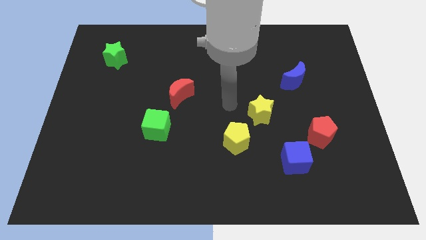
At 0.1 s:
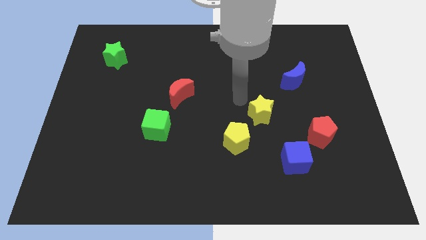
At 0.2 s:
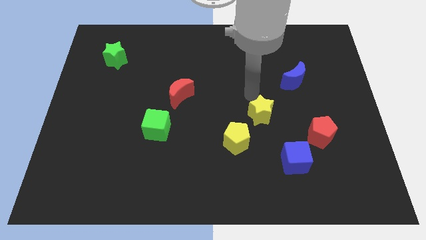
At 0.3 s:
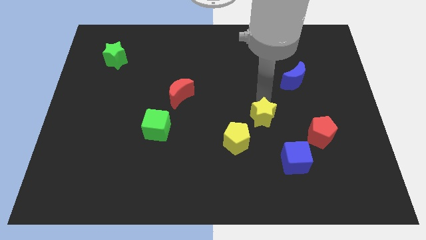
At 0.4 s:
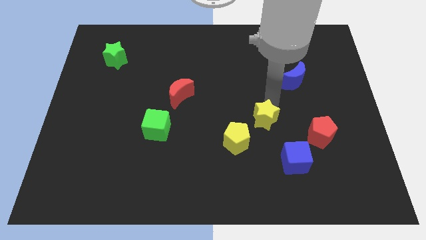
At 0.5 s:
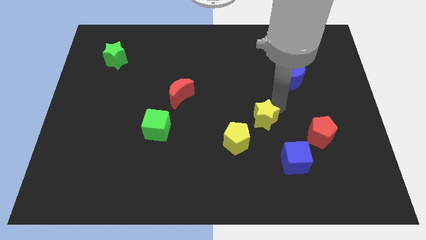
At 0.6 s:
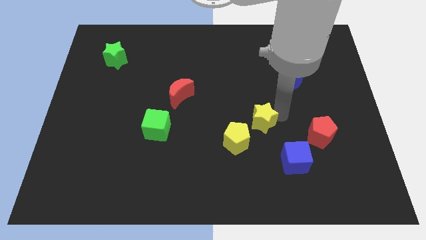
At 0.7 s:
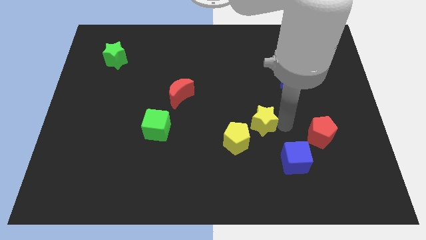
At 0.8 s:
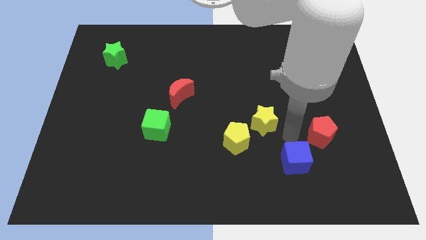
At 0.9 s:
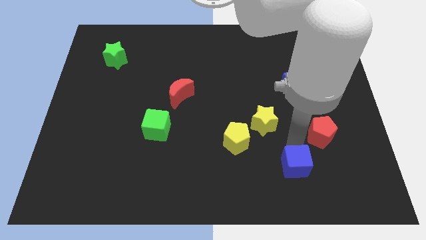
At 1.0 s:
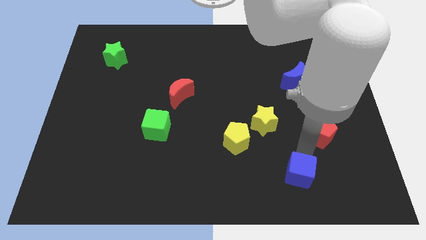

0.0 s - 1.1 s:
move the red pentagon away from the blue cube

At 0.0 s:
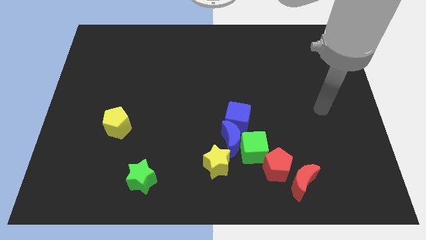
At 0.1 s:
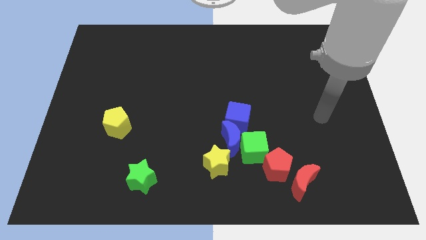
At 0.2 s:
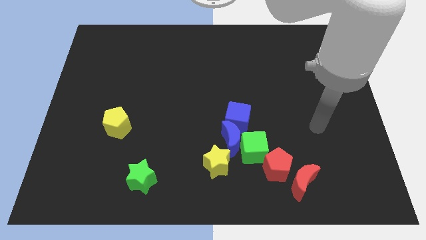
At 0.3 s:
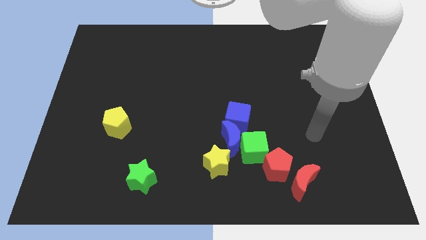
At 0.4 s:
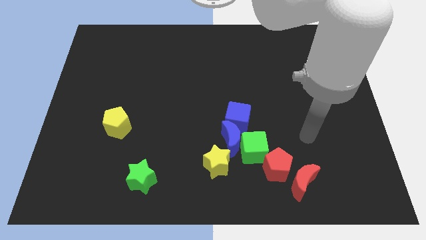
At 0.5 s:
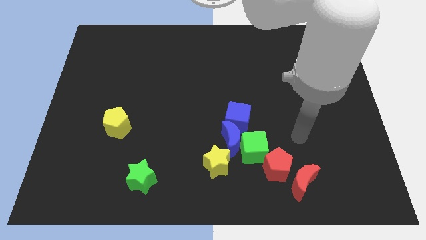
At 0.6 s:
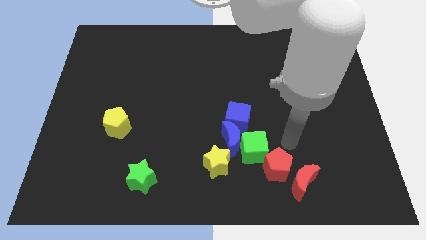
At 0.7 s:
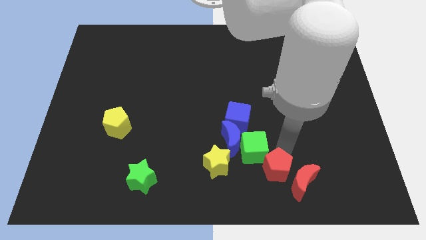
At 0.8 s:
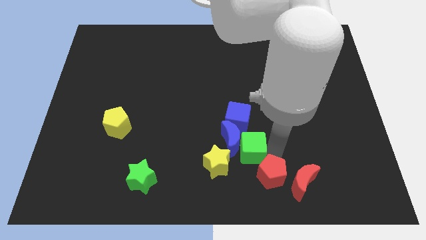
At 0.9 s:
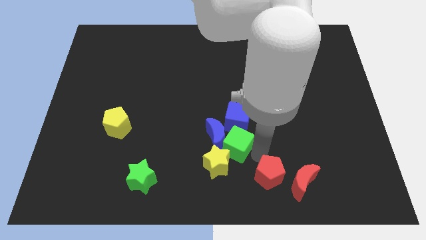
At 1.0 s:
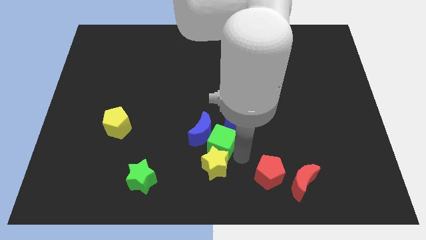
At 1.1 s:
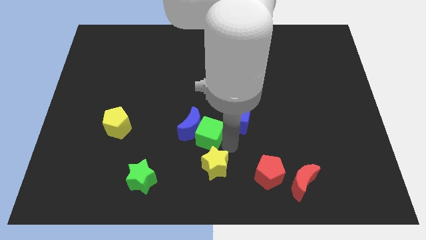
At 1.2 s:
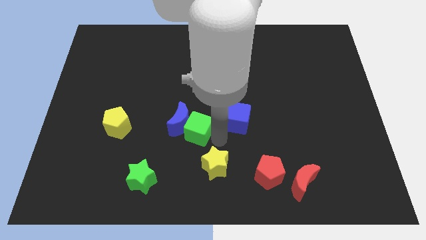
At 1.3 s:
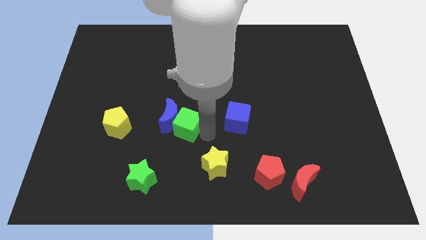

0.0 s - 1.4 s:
pull the blue moon apart from the green cube, blue cube, and yellow star

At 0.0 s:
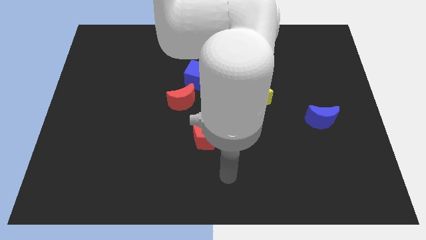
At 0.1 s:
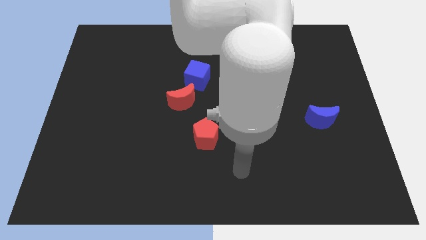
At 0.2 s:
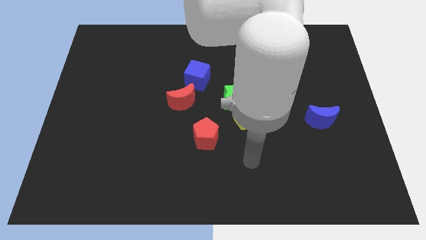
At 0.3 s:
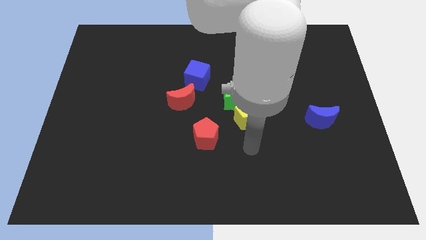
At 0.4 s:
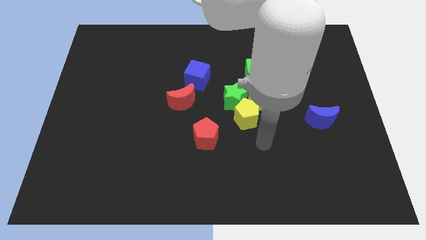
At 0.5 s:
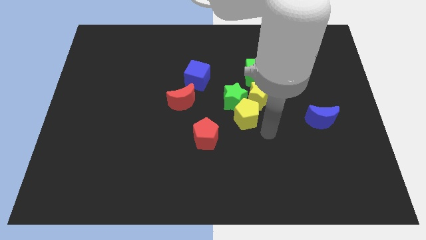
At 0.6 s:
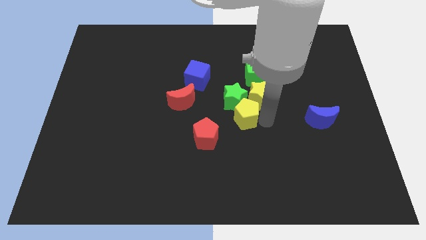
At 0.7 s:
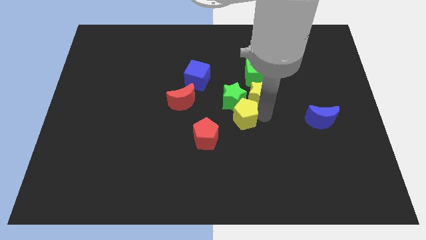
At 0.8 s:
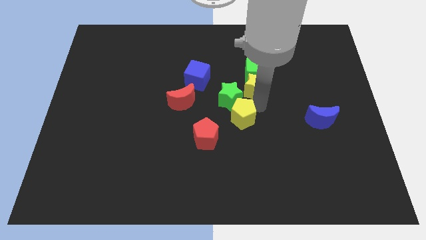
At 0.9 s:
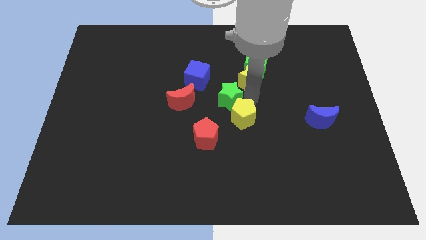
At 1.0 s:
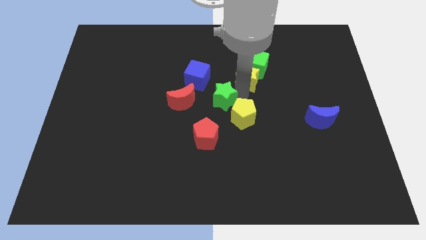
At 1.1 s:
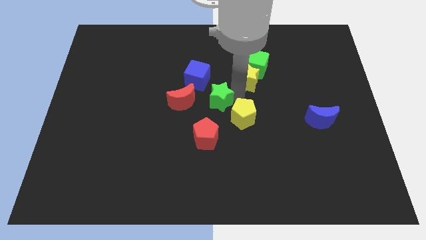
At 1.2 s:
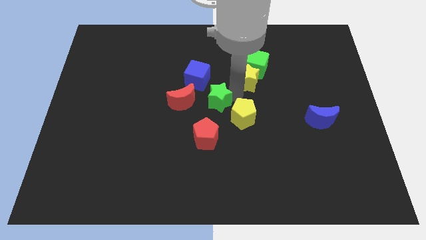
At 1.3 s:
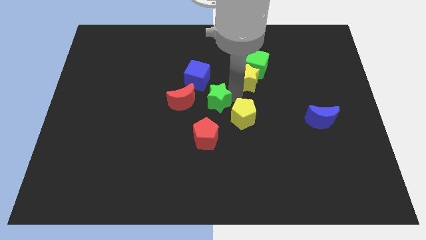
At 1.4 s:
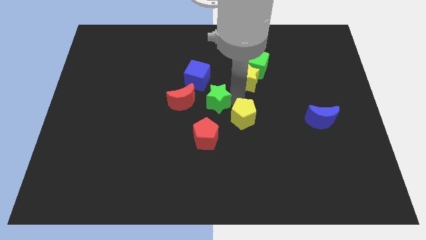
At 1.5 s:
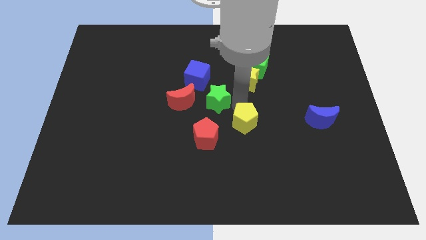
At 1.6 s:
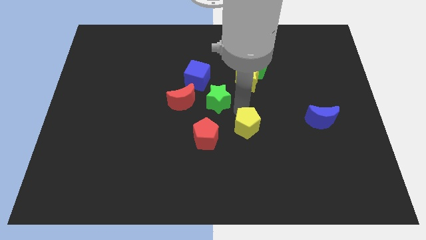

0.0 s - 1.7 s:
pull the yellow pentagon apart from the green star and yellow star

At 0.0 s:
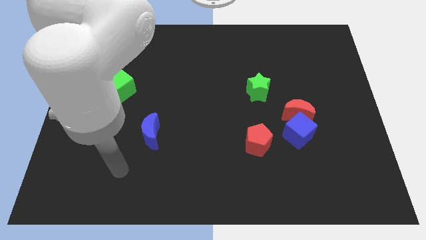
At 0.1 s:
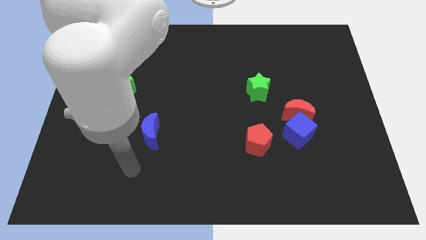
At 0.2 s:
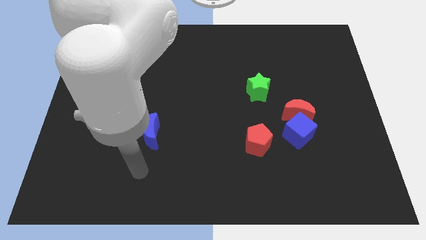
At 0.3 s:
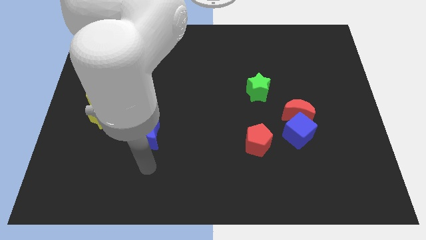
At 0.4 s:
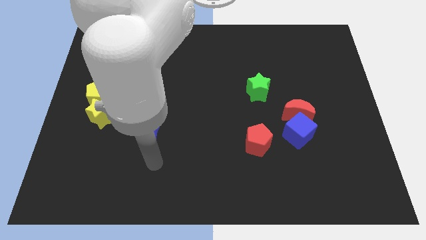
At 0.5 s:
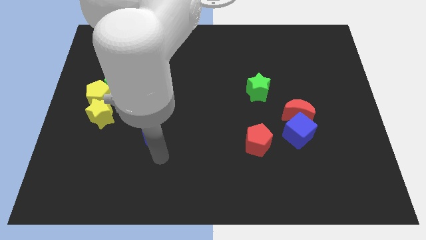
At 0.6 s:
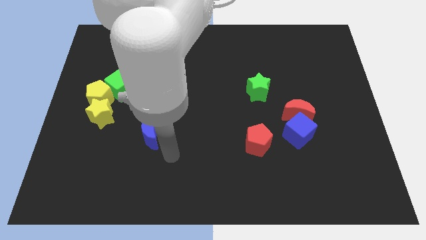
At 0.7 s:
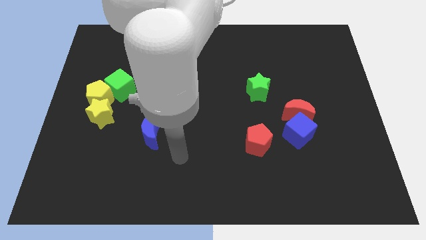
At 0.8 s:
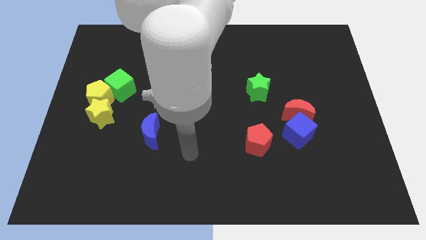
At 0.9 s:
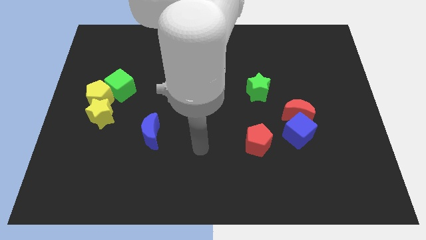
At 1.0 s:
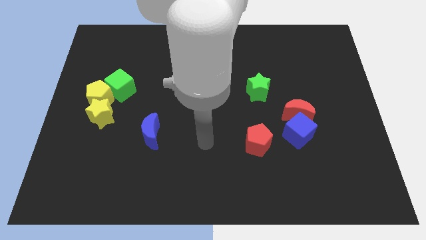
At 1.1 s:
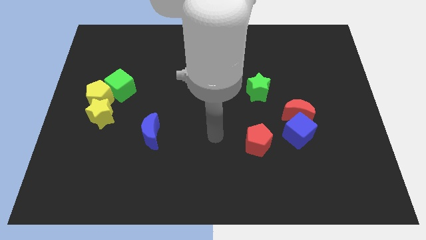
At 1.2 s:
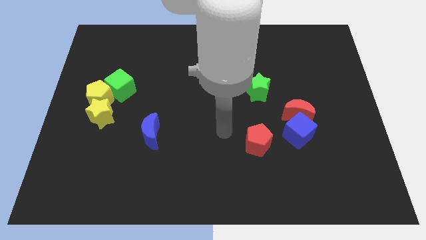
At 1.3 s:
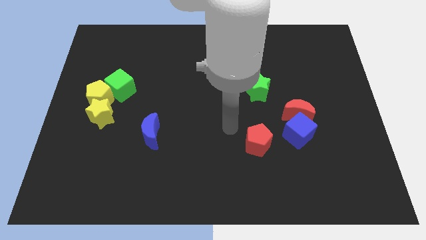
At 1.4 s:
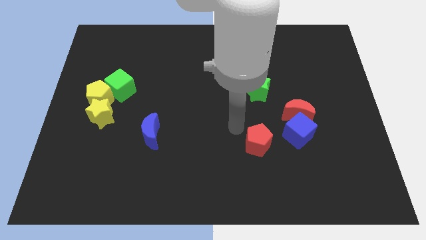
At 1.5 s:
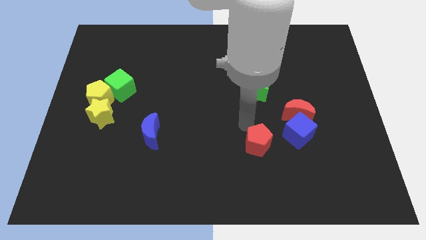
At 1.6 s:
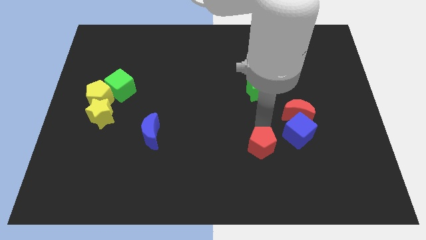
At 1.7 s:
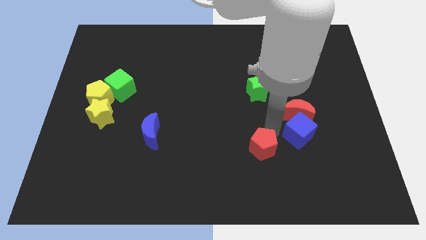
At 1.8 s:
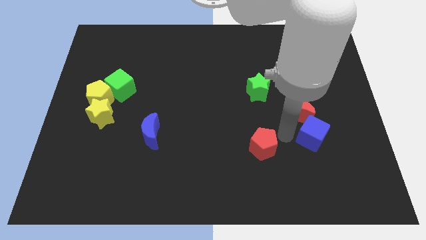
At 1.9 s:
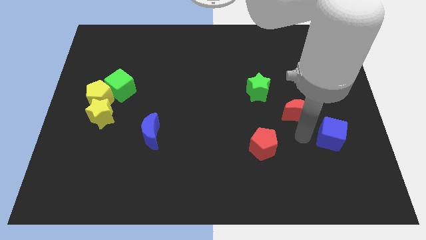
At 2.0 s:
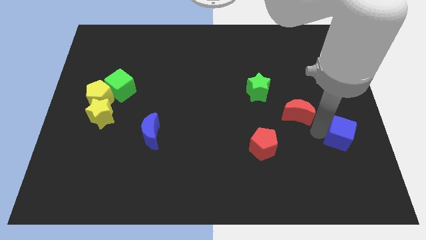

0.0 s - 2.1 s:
pull the red moon apart from the blue cube

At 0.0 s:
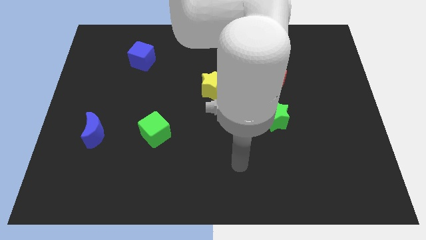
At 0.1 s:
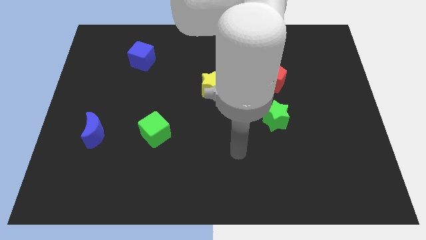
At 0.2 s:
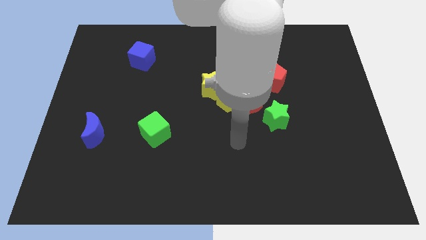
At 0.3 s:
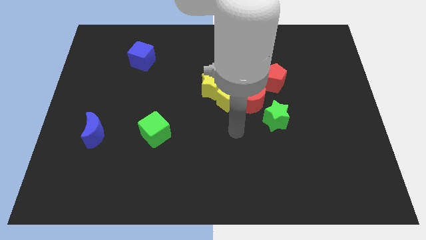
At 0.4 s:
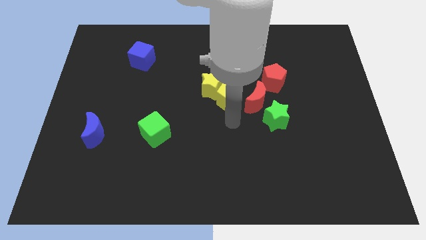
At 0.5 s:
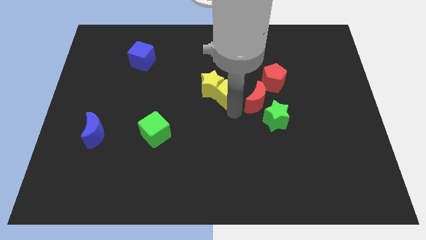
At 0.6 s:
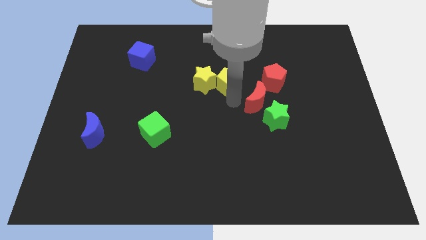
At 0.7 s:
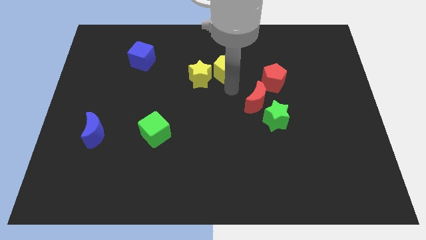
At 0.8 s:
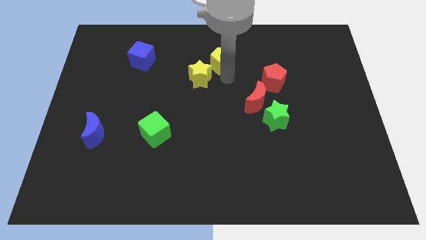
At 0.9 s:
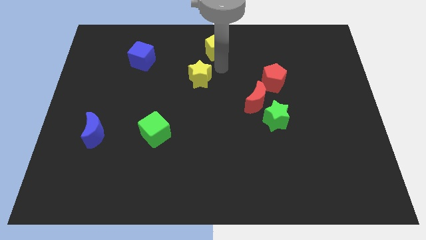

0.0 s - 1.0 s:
separate the yellow star from the yellow pentagon

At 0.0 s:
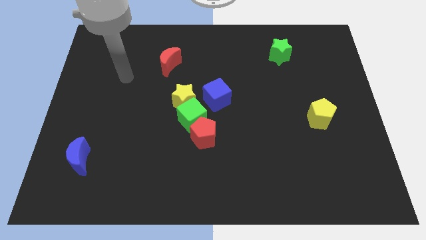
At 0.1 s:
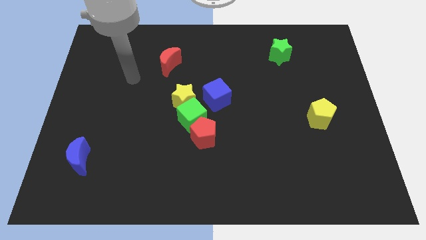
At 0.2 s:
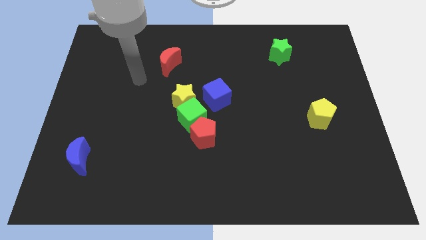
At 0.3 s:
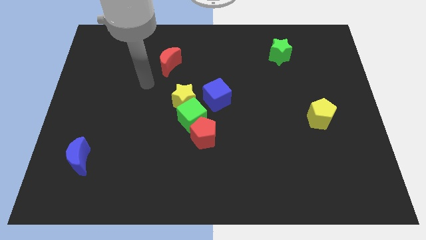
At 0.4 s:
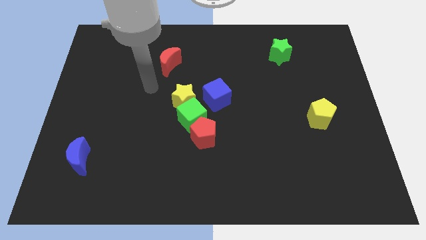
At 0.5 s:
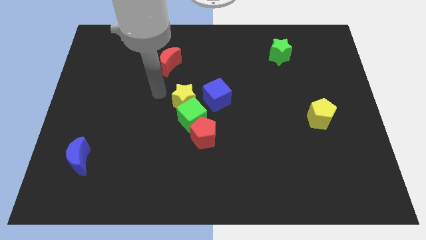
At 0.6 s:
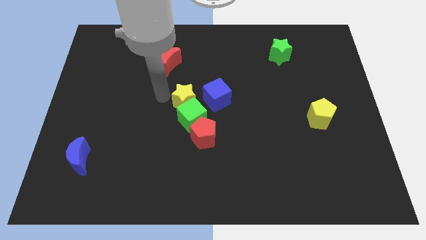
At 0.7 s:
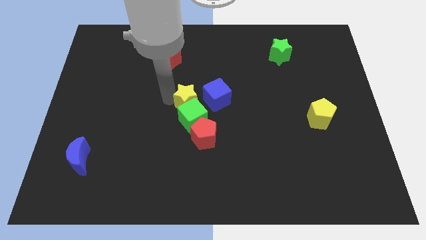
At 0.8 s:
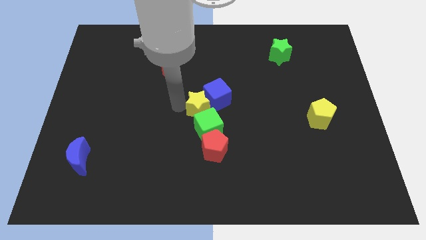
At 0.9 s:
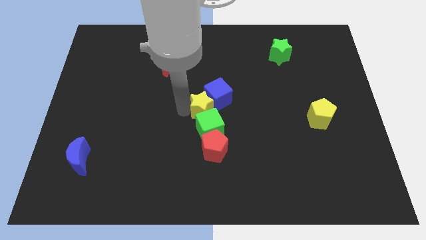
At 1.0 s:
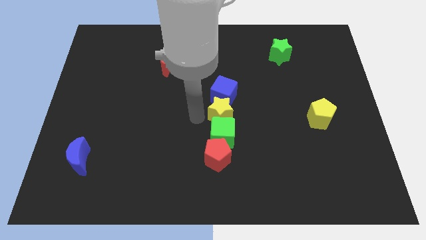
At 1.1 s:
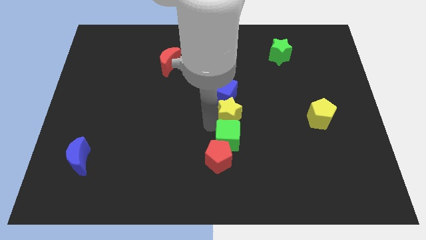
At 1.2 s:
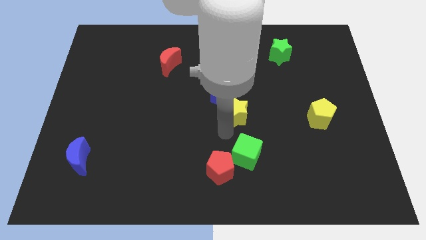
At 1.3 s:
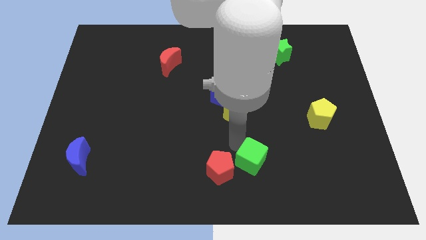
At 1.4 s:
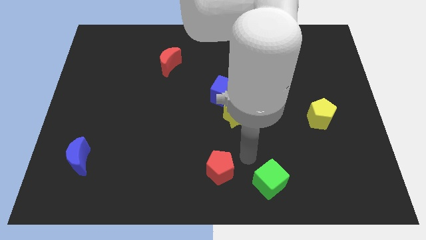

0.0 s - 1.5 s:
pull the red pentagon apart from the green cube

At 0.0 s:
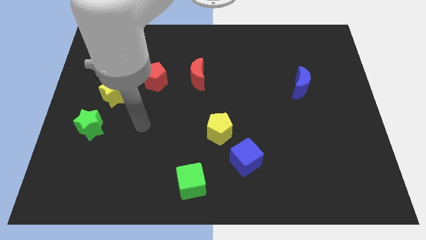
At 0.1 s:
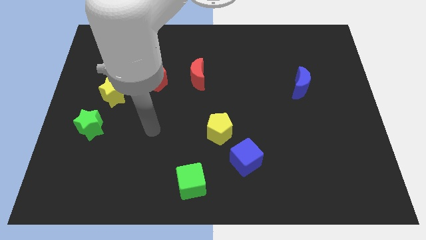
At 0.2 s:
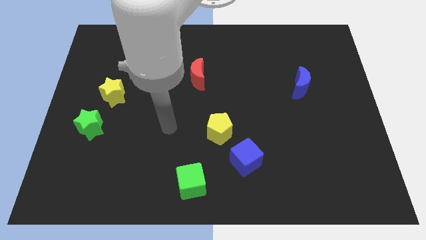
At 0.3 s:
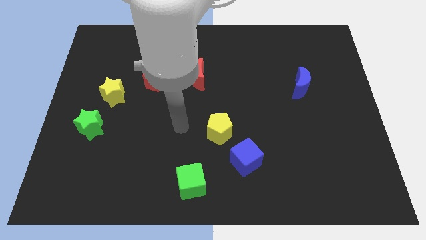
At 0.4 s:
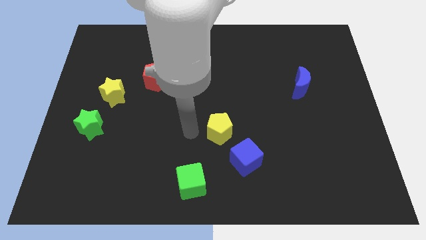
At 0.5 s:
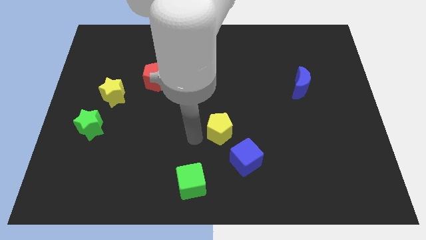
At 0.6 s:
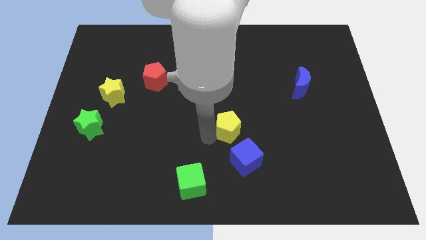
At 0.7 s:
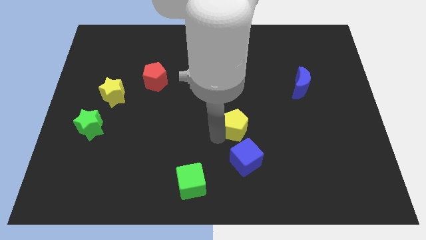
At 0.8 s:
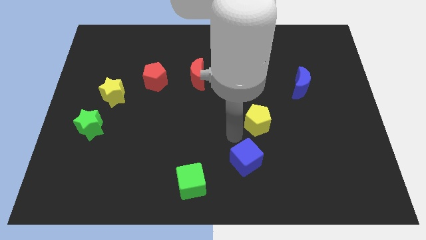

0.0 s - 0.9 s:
pull the blue cube apart from the yellow pentagon
